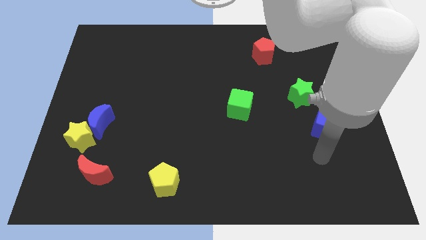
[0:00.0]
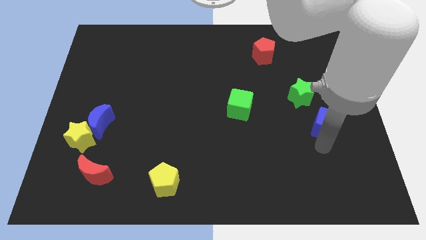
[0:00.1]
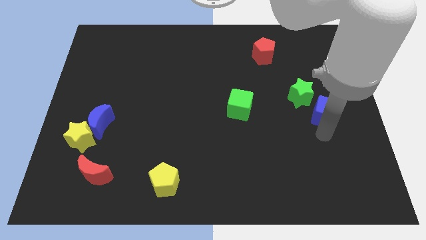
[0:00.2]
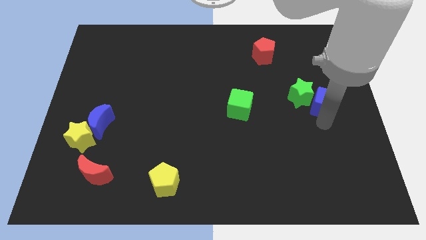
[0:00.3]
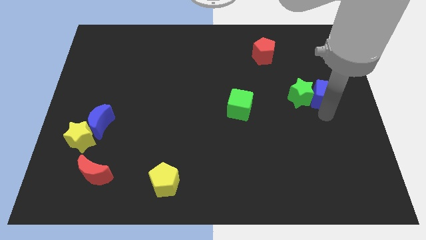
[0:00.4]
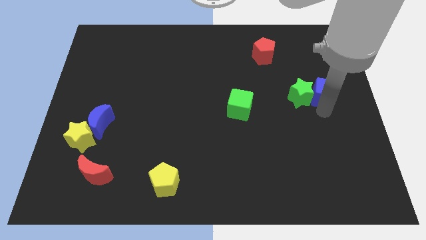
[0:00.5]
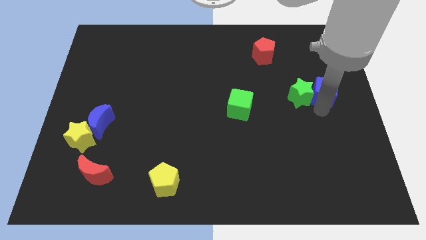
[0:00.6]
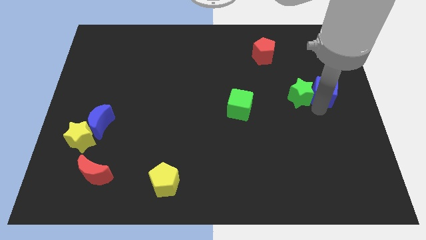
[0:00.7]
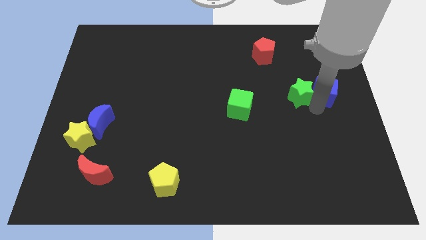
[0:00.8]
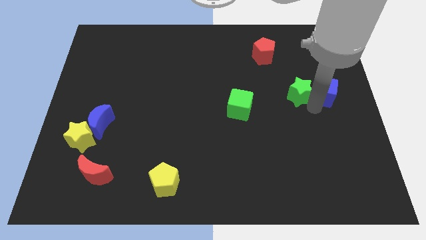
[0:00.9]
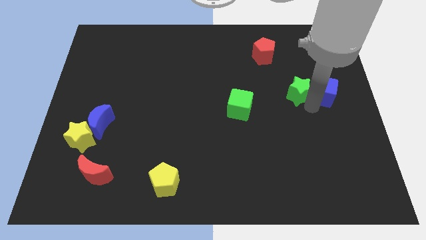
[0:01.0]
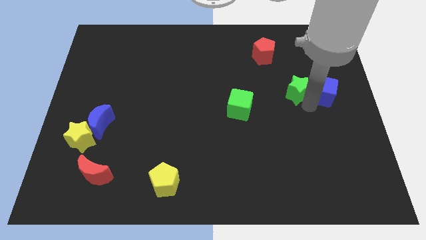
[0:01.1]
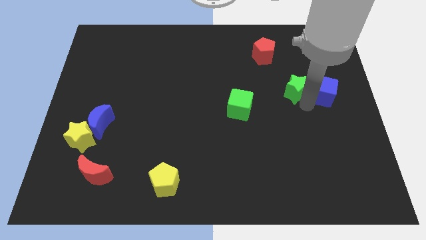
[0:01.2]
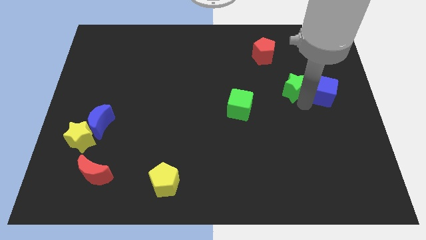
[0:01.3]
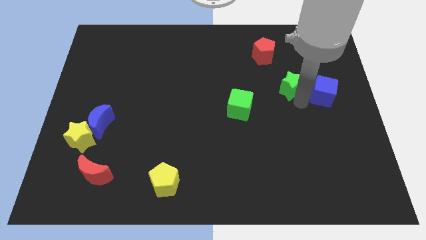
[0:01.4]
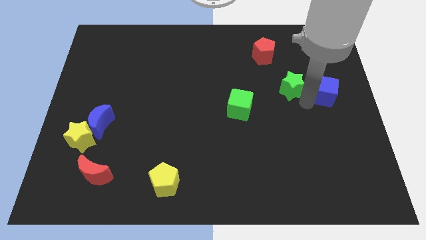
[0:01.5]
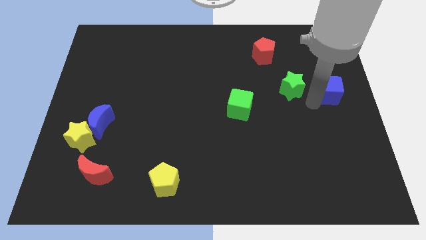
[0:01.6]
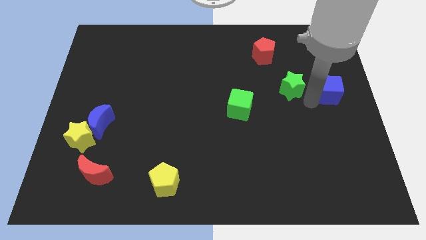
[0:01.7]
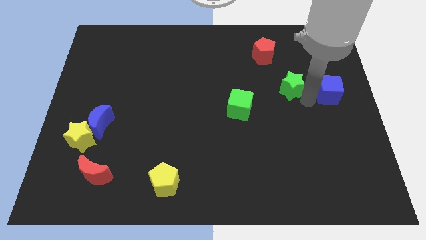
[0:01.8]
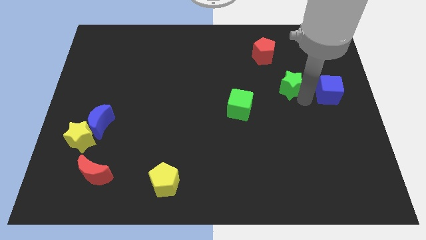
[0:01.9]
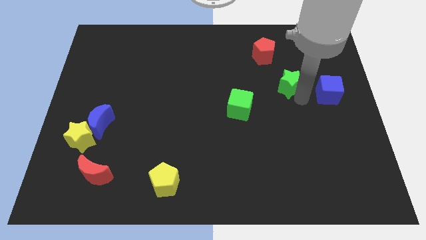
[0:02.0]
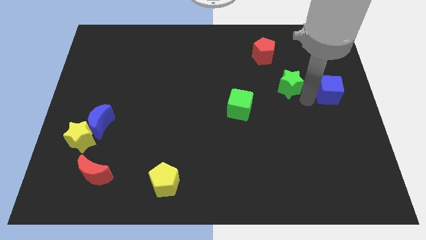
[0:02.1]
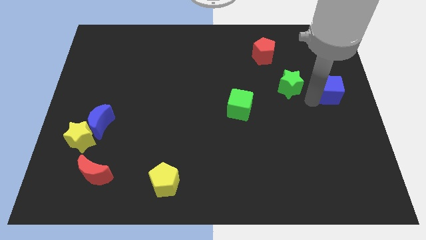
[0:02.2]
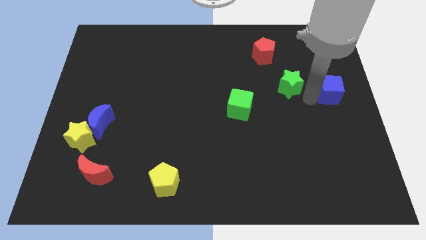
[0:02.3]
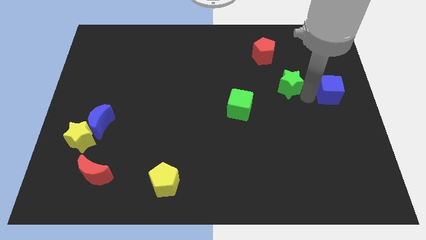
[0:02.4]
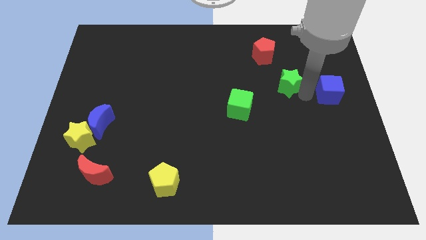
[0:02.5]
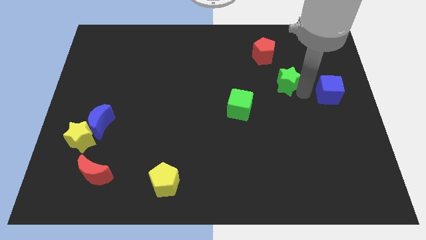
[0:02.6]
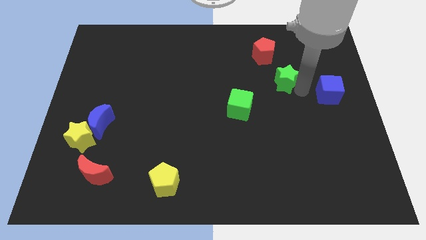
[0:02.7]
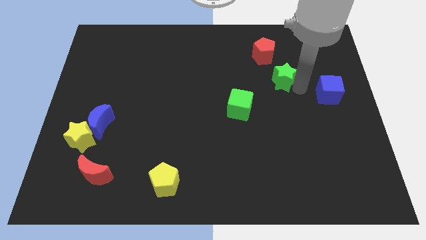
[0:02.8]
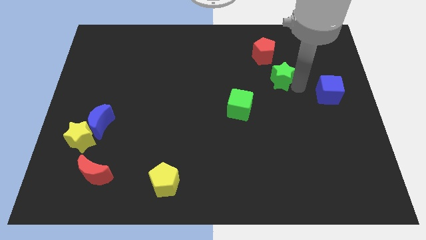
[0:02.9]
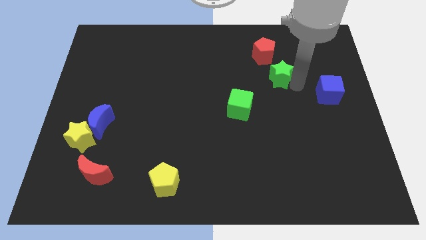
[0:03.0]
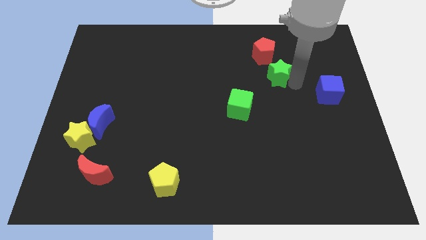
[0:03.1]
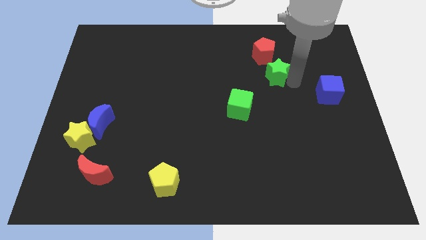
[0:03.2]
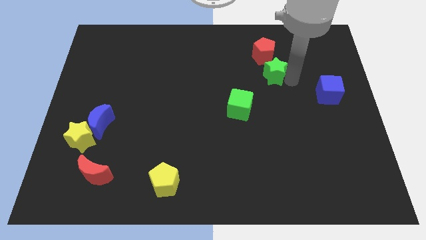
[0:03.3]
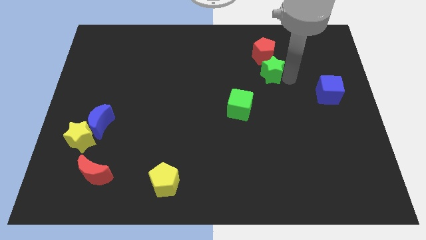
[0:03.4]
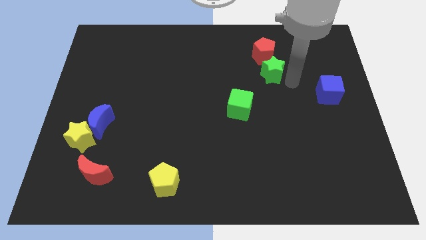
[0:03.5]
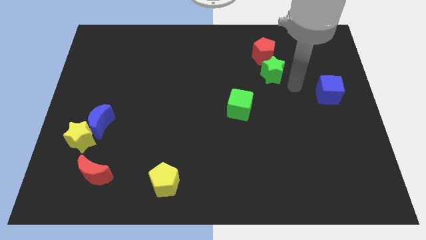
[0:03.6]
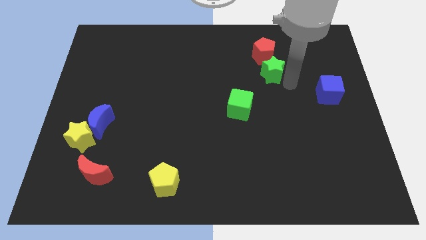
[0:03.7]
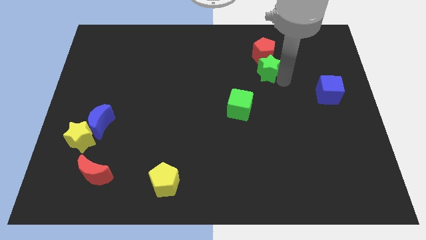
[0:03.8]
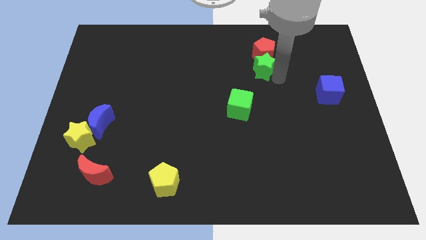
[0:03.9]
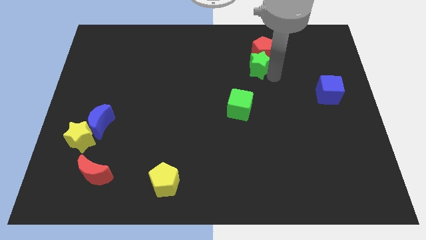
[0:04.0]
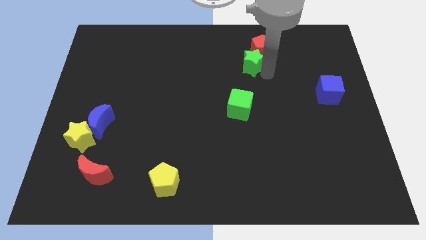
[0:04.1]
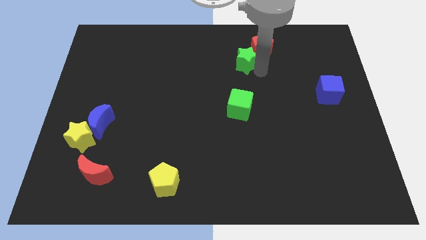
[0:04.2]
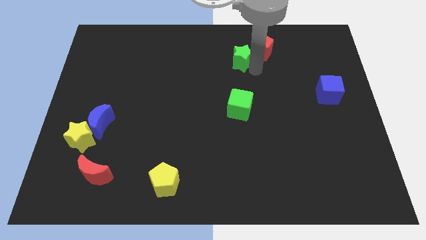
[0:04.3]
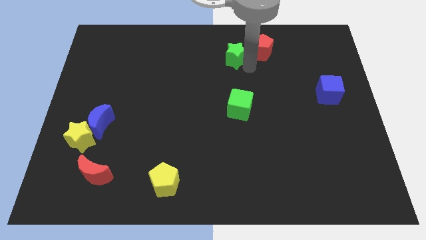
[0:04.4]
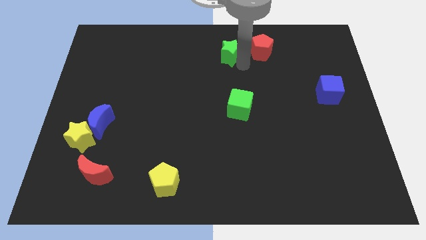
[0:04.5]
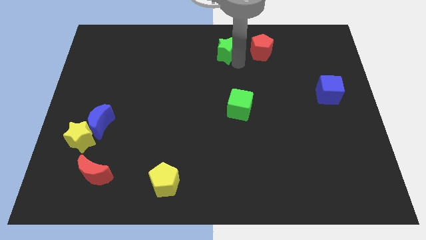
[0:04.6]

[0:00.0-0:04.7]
push the green star to the towards your base

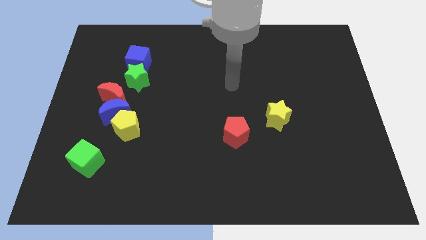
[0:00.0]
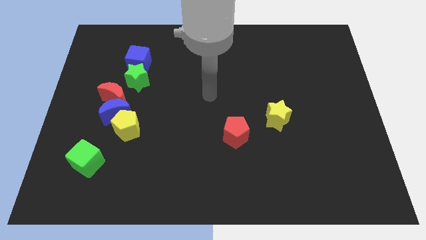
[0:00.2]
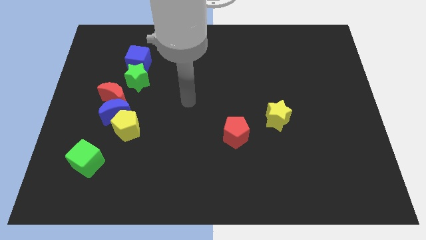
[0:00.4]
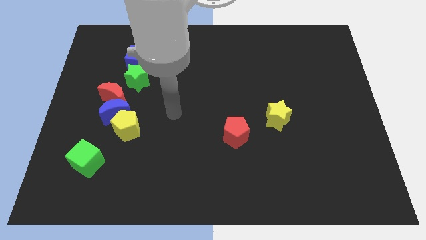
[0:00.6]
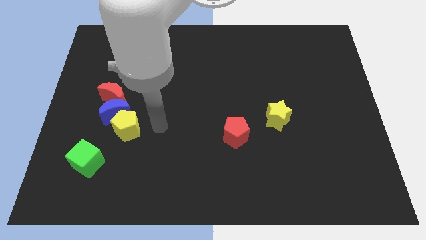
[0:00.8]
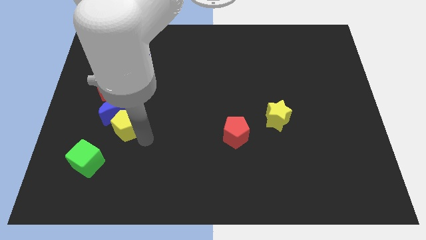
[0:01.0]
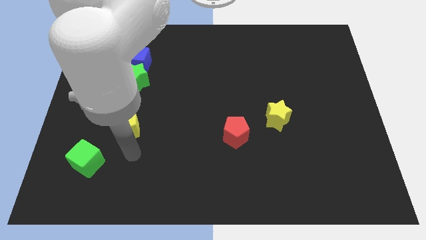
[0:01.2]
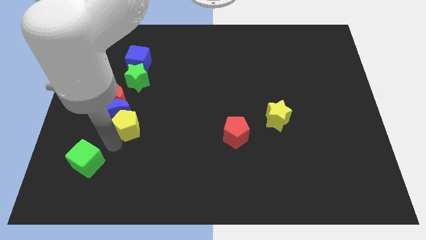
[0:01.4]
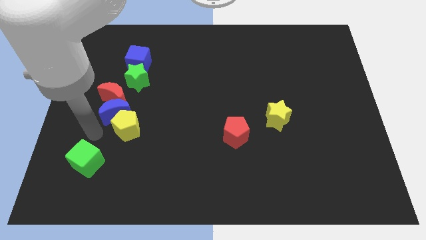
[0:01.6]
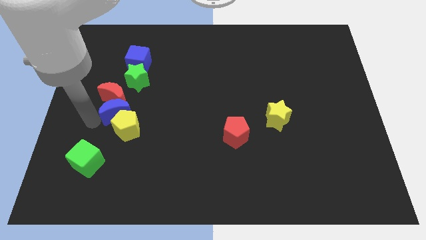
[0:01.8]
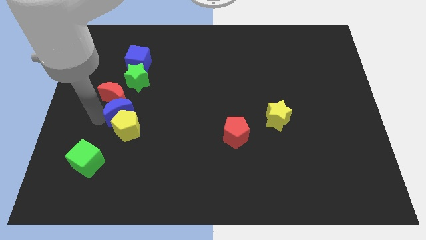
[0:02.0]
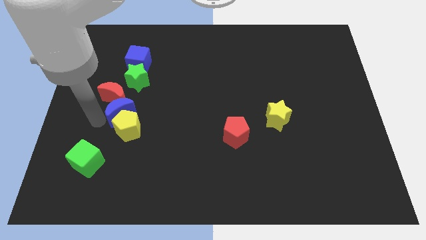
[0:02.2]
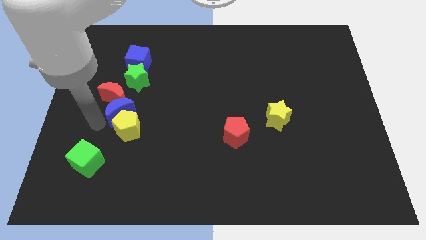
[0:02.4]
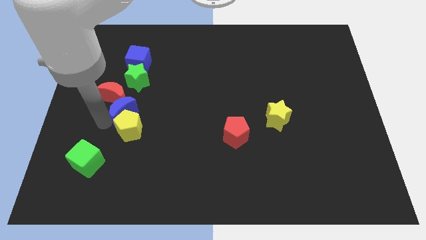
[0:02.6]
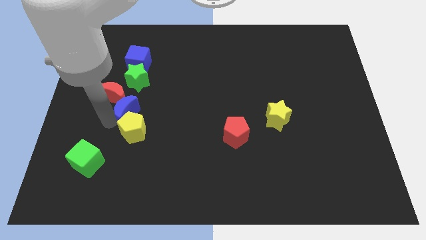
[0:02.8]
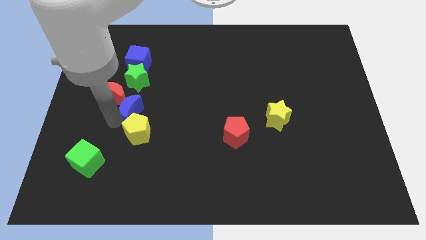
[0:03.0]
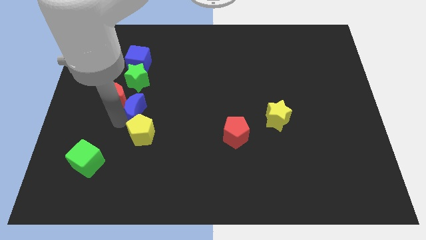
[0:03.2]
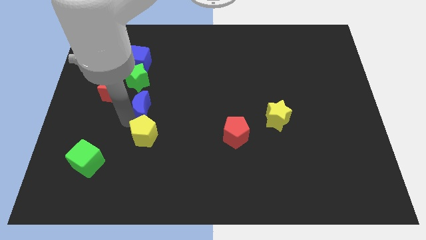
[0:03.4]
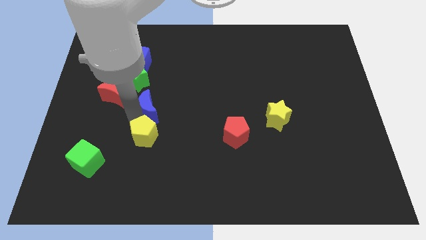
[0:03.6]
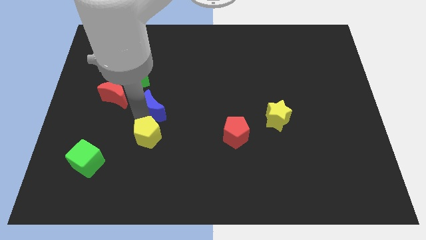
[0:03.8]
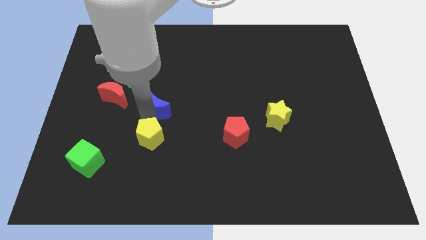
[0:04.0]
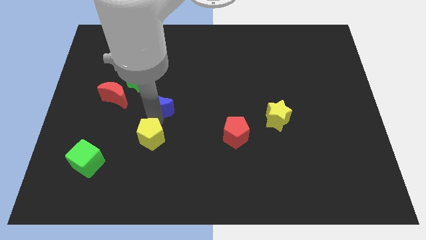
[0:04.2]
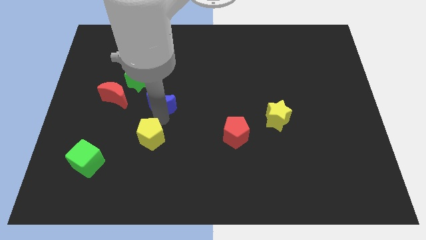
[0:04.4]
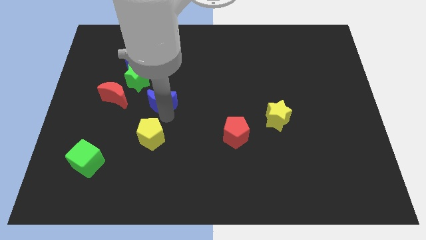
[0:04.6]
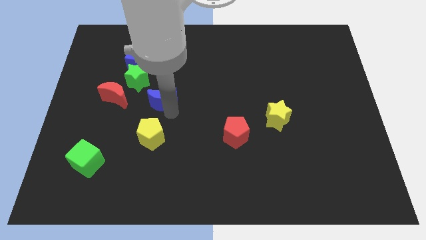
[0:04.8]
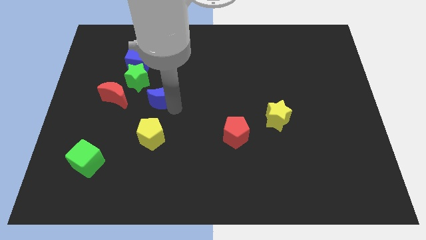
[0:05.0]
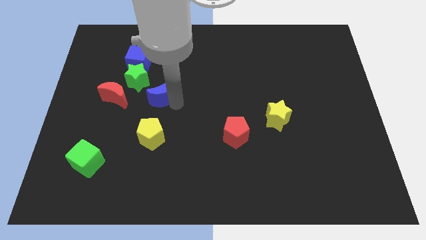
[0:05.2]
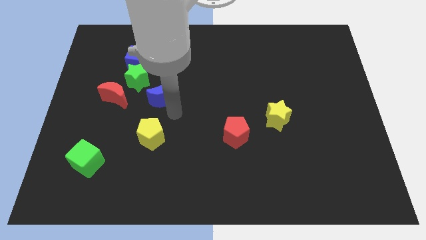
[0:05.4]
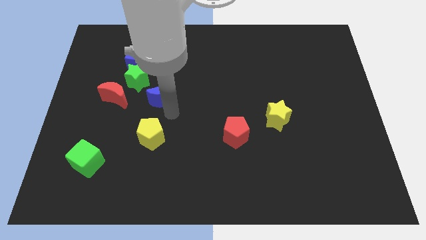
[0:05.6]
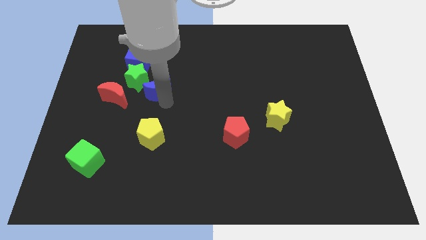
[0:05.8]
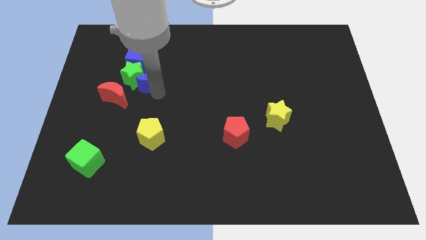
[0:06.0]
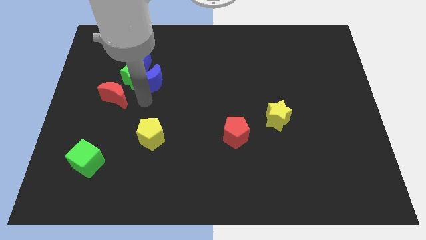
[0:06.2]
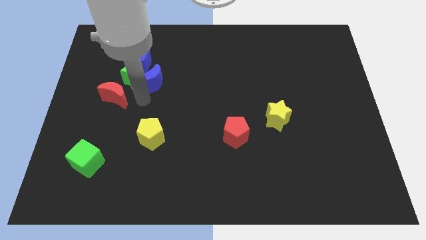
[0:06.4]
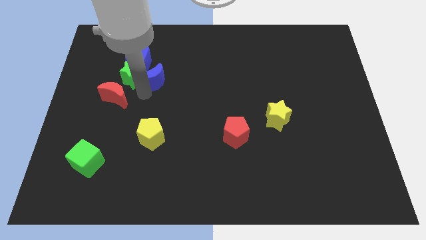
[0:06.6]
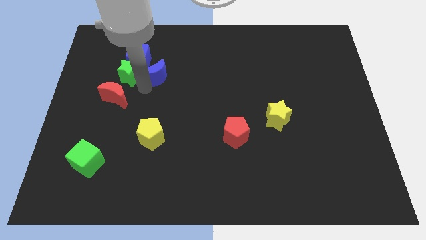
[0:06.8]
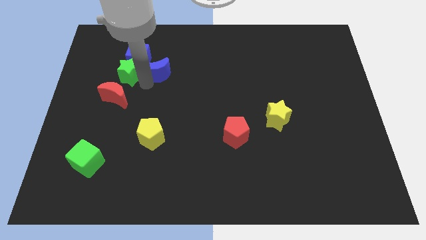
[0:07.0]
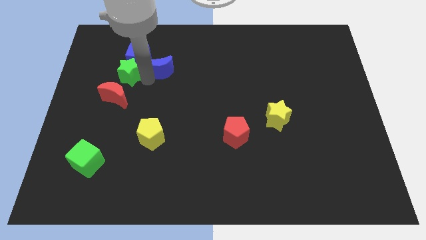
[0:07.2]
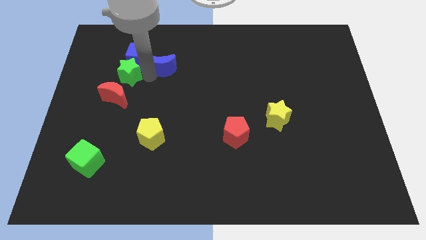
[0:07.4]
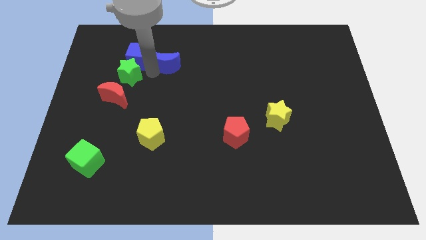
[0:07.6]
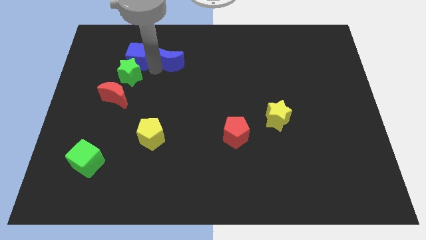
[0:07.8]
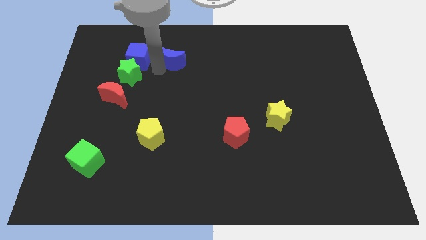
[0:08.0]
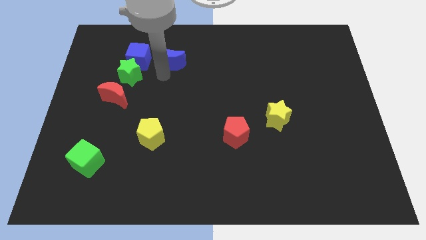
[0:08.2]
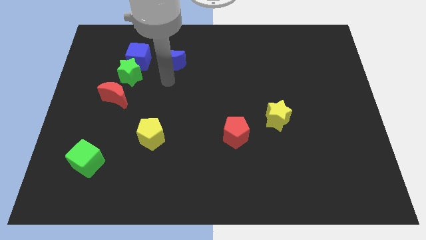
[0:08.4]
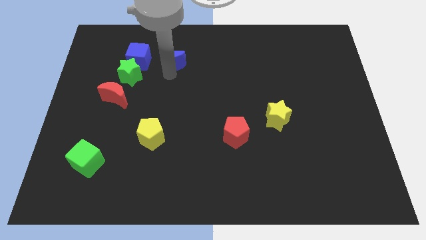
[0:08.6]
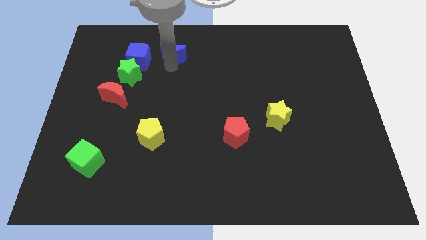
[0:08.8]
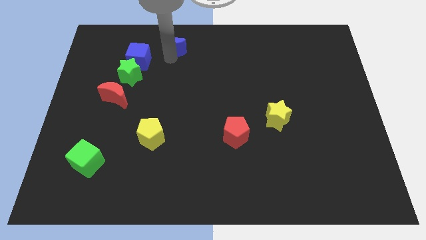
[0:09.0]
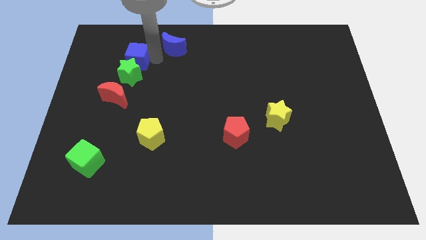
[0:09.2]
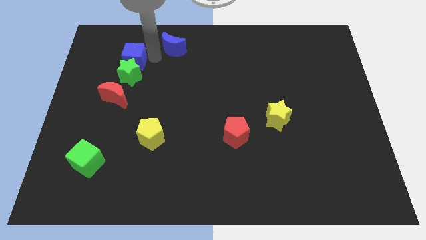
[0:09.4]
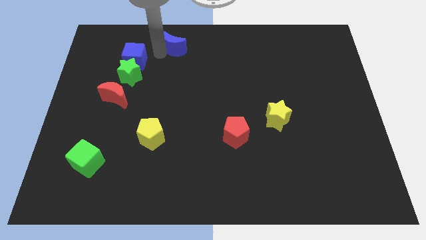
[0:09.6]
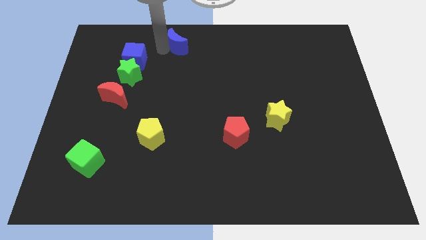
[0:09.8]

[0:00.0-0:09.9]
push the blue moon to the towards your base
